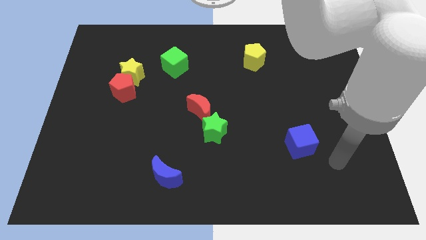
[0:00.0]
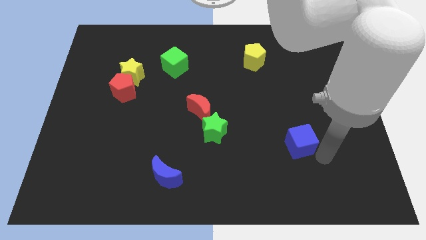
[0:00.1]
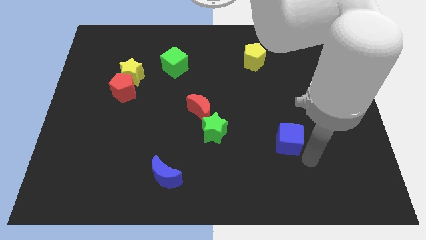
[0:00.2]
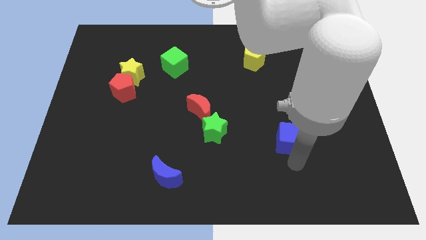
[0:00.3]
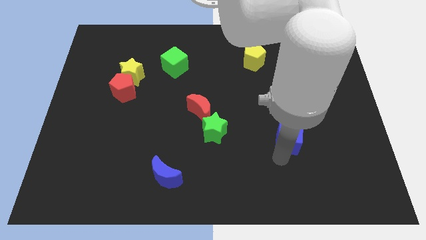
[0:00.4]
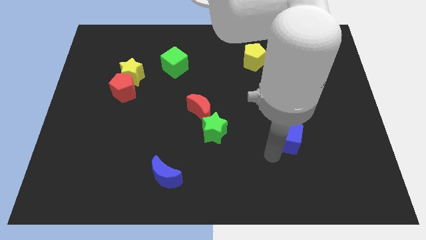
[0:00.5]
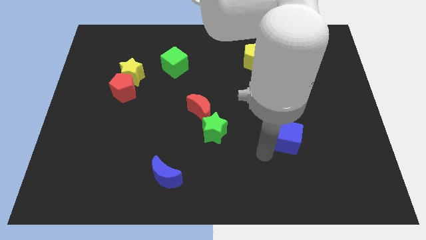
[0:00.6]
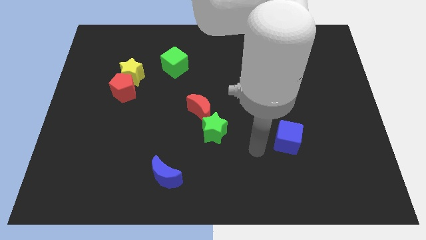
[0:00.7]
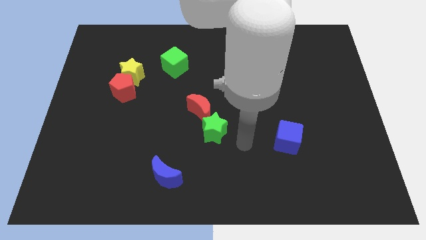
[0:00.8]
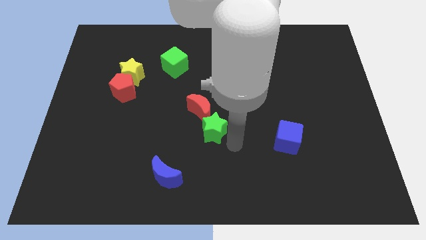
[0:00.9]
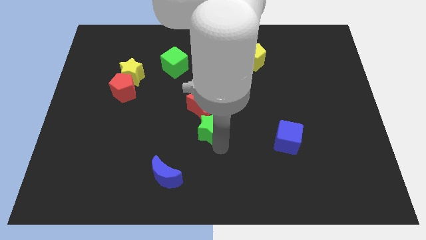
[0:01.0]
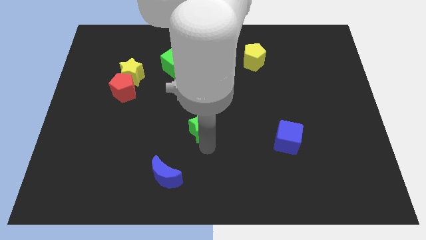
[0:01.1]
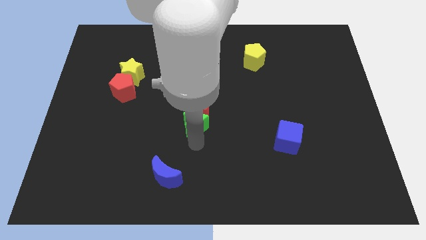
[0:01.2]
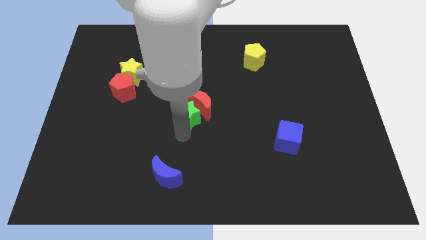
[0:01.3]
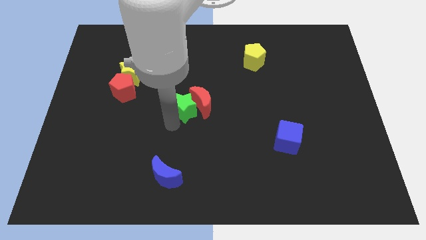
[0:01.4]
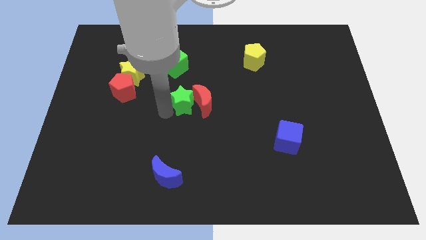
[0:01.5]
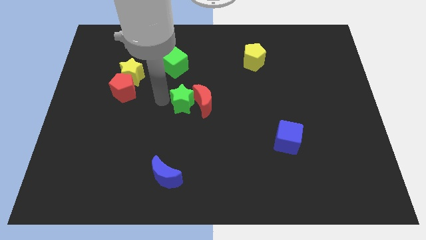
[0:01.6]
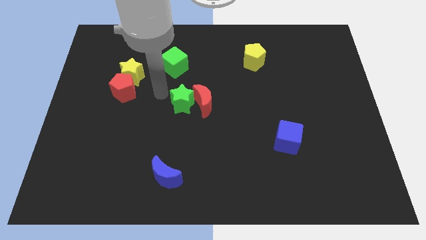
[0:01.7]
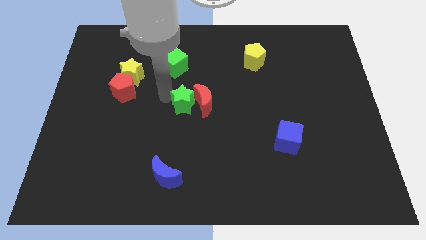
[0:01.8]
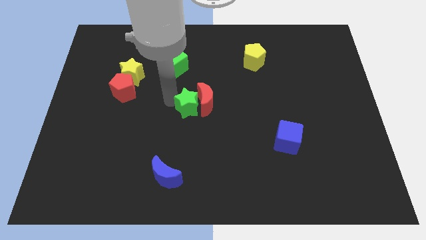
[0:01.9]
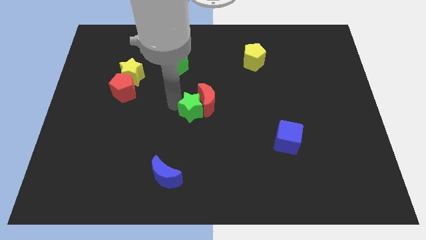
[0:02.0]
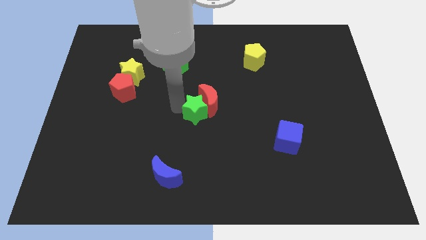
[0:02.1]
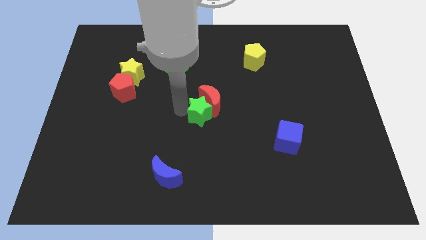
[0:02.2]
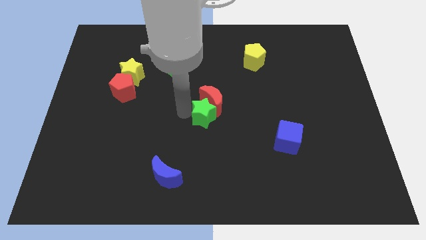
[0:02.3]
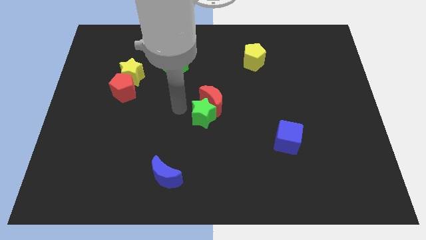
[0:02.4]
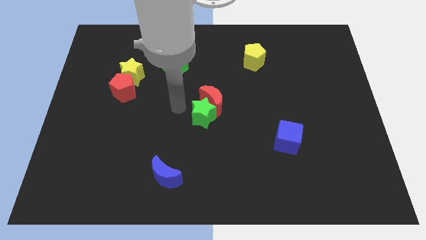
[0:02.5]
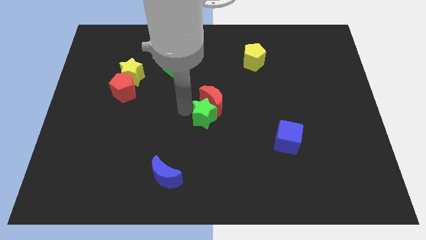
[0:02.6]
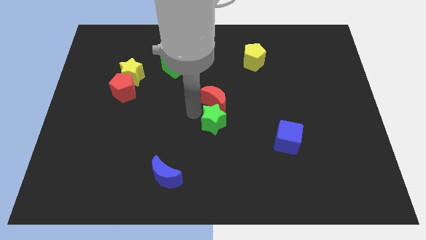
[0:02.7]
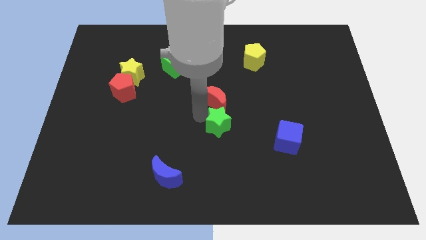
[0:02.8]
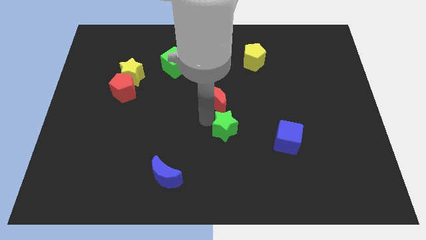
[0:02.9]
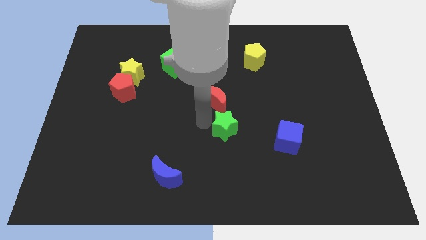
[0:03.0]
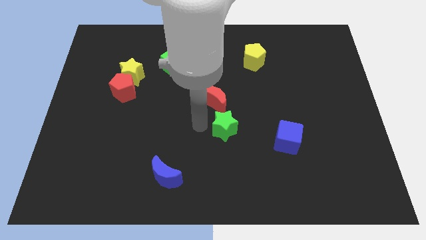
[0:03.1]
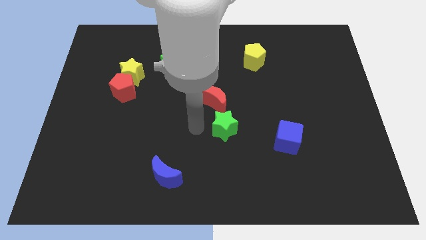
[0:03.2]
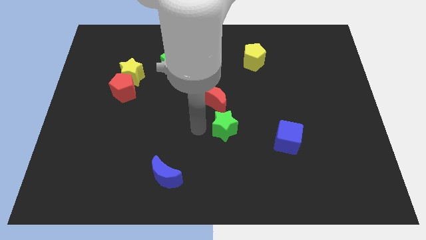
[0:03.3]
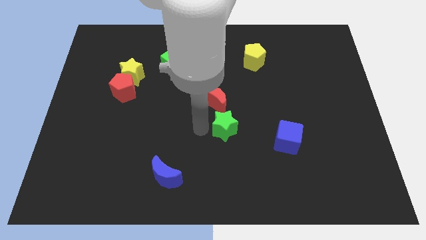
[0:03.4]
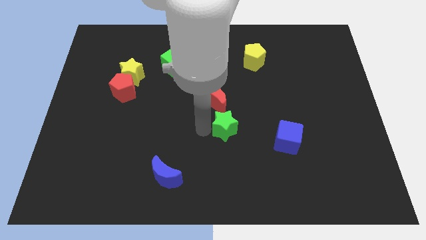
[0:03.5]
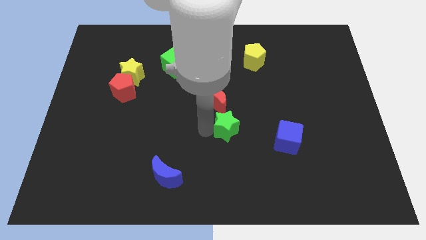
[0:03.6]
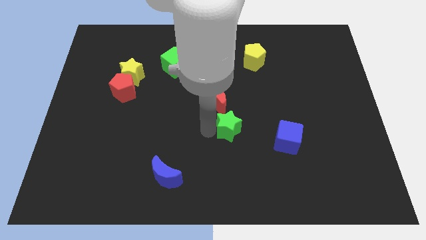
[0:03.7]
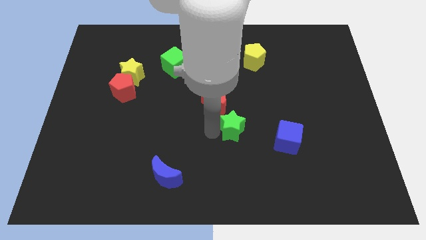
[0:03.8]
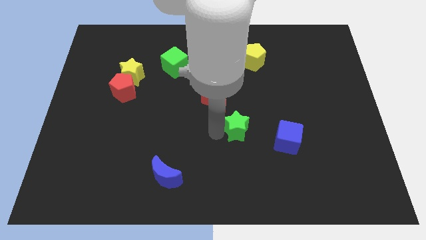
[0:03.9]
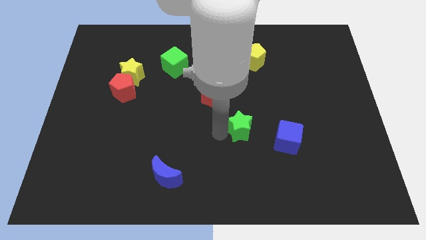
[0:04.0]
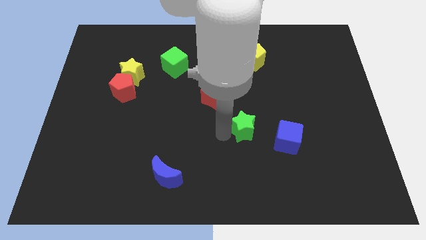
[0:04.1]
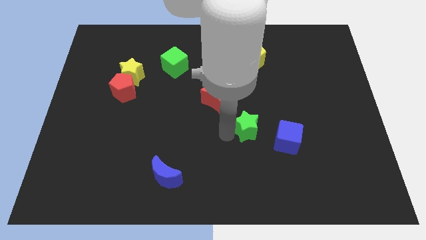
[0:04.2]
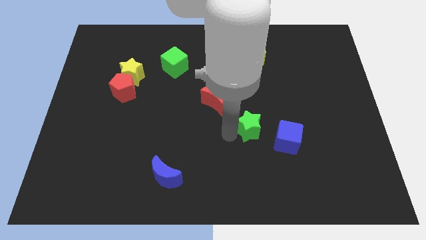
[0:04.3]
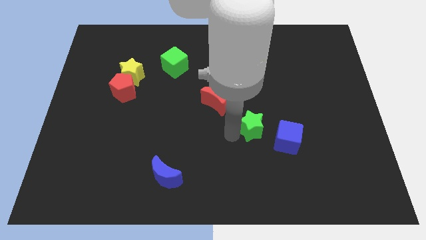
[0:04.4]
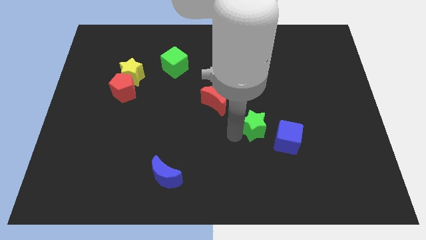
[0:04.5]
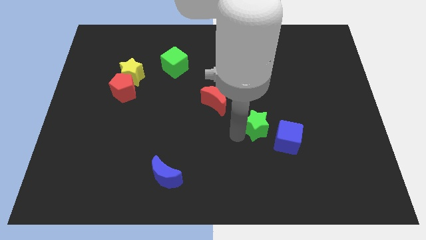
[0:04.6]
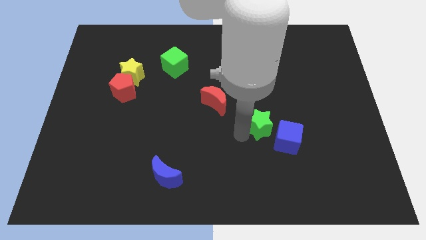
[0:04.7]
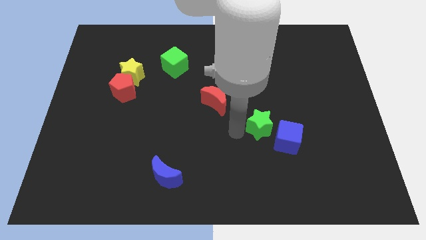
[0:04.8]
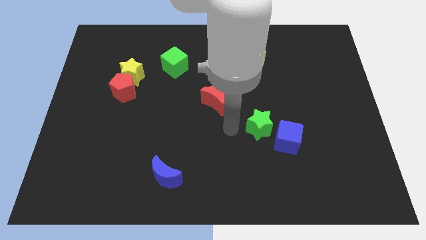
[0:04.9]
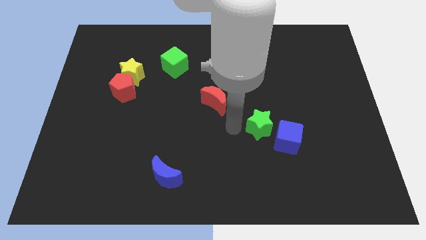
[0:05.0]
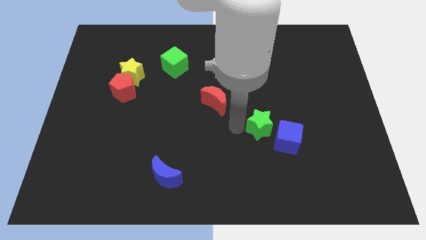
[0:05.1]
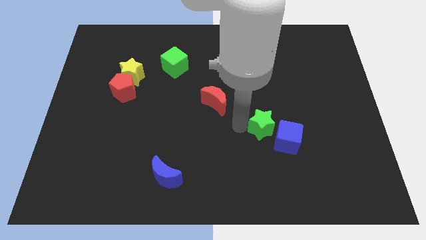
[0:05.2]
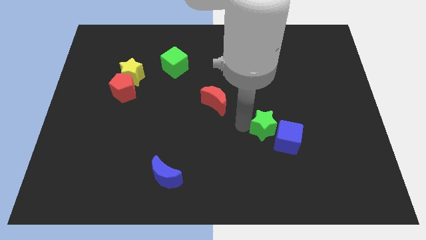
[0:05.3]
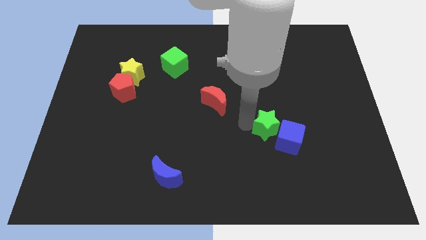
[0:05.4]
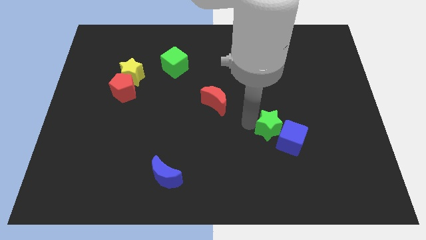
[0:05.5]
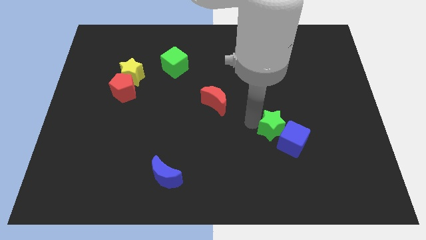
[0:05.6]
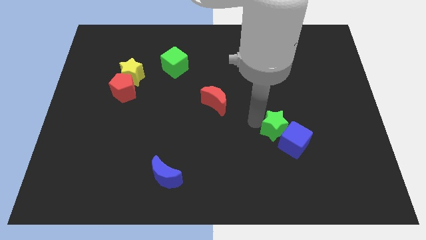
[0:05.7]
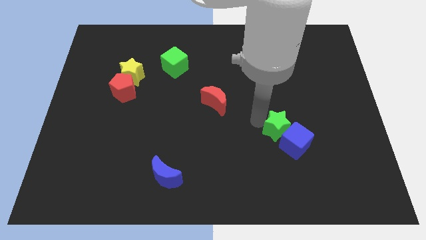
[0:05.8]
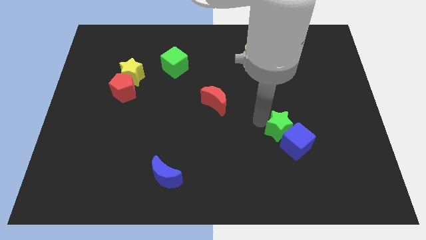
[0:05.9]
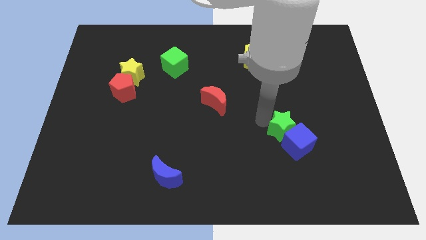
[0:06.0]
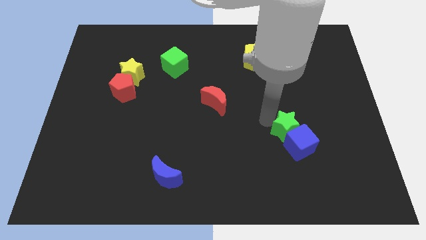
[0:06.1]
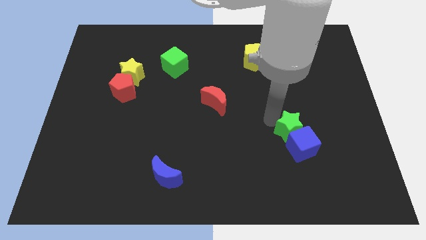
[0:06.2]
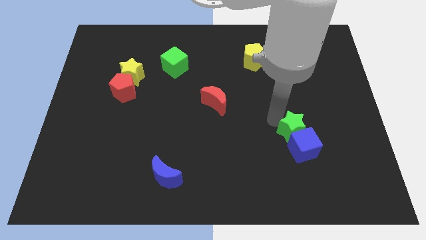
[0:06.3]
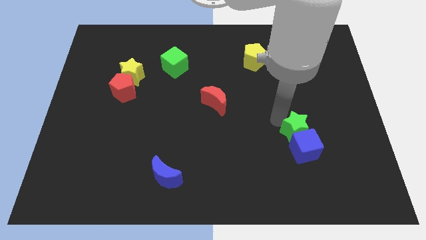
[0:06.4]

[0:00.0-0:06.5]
slide the green star diagonally up and to the right of the blue cube

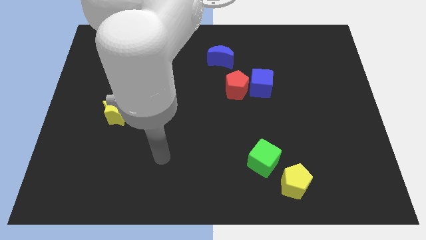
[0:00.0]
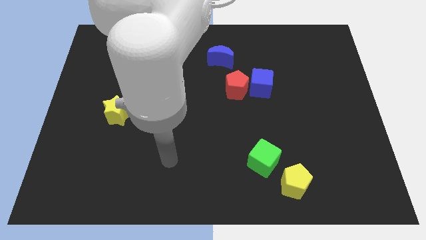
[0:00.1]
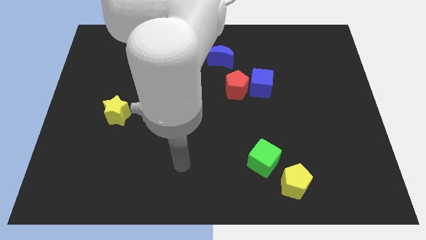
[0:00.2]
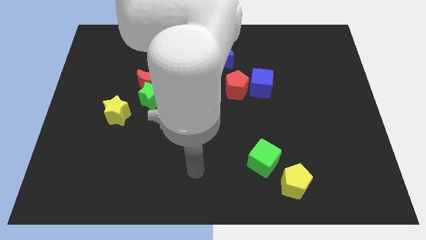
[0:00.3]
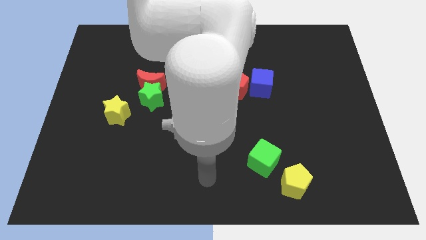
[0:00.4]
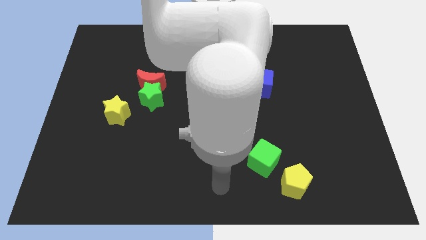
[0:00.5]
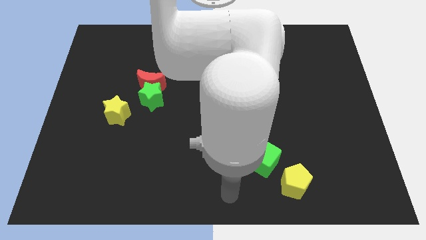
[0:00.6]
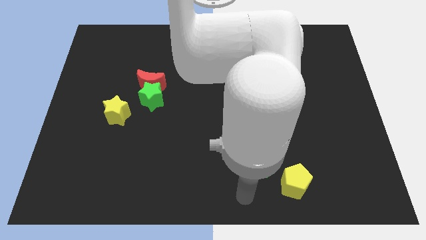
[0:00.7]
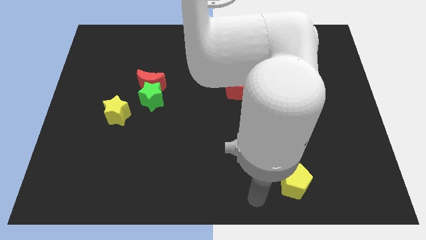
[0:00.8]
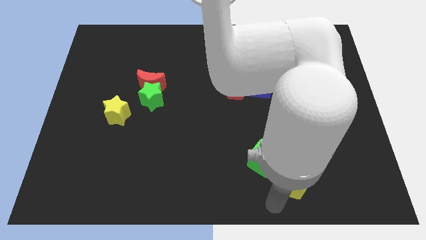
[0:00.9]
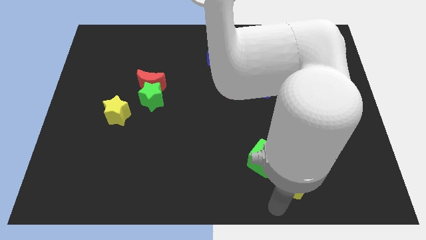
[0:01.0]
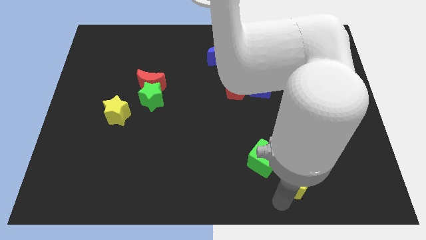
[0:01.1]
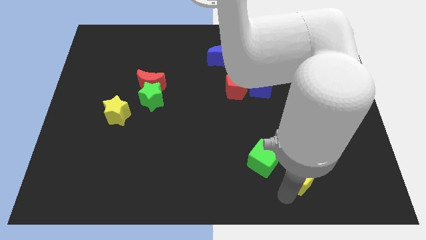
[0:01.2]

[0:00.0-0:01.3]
put the yellow pentagon just right of the green cube
